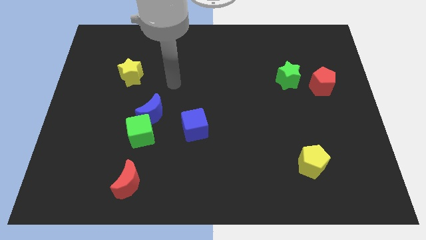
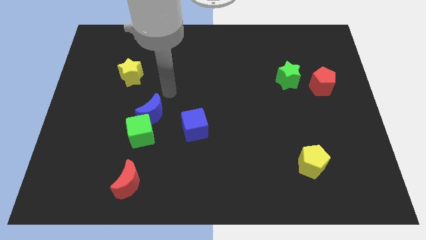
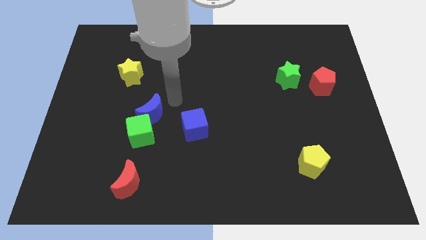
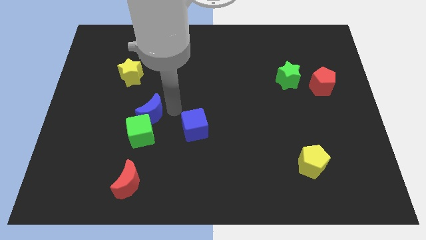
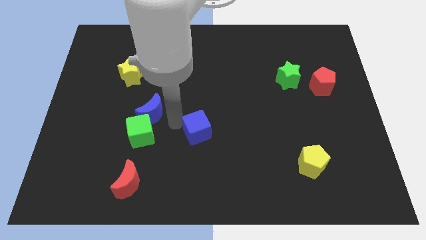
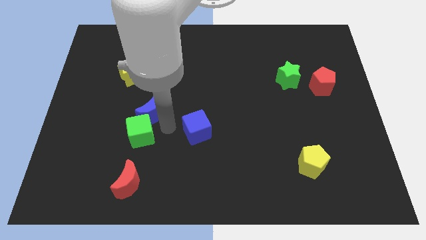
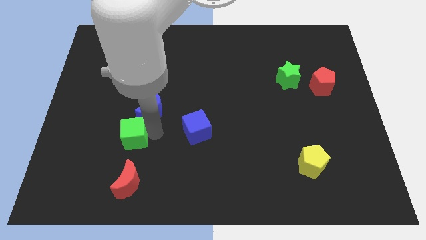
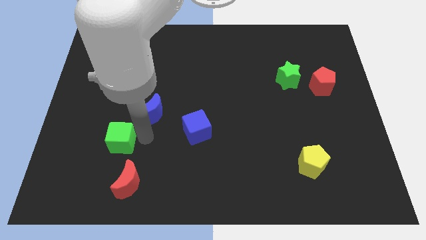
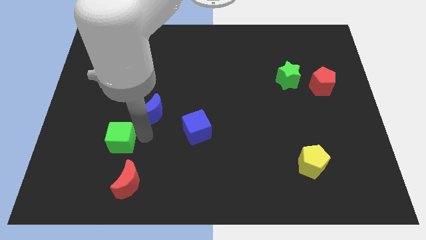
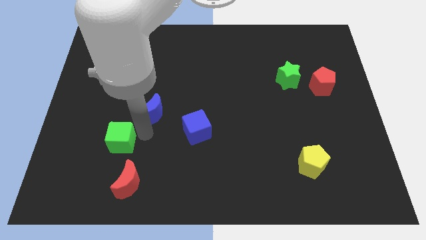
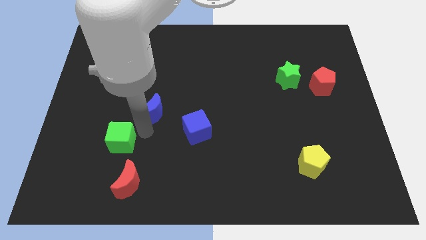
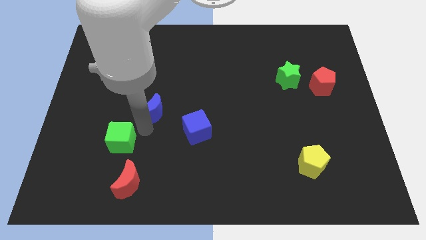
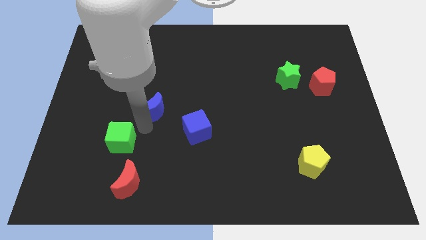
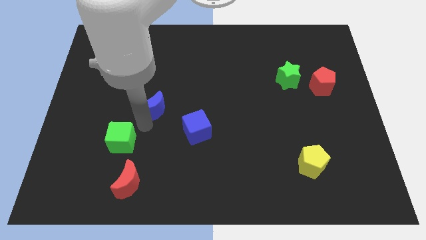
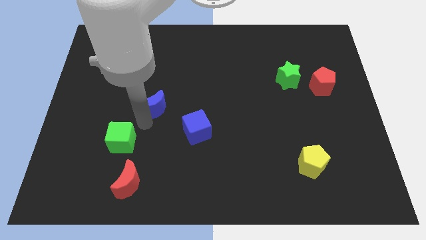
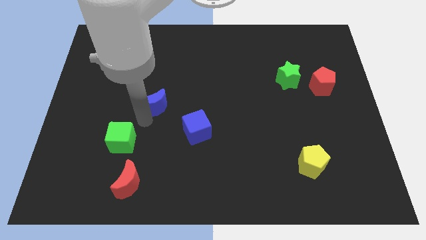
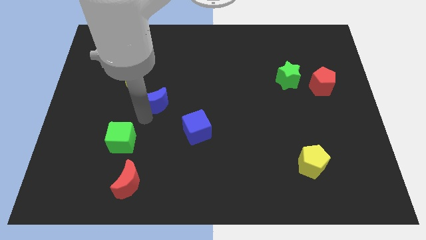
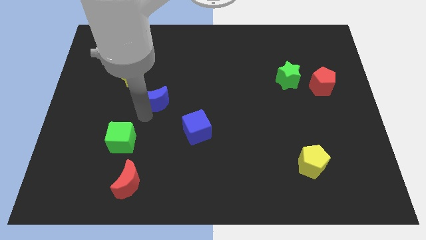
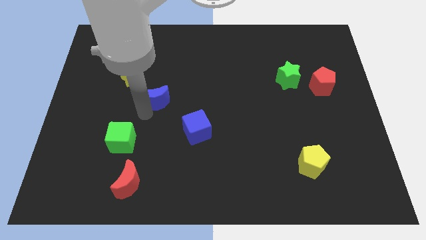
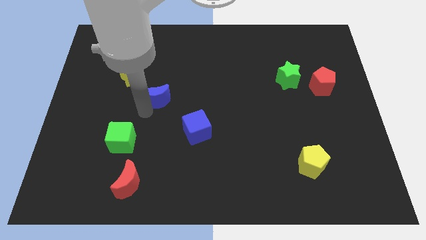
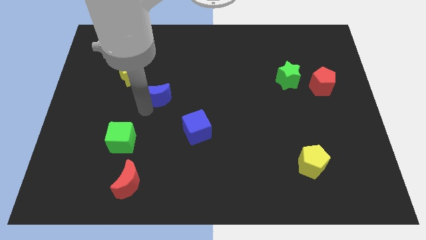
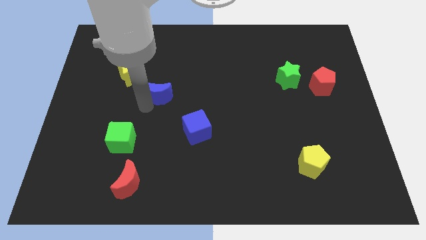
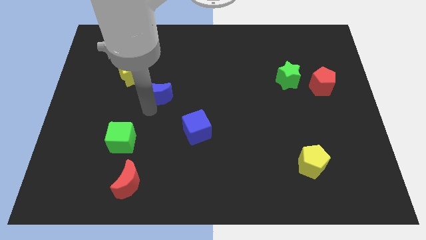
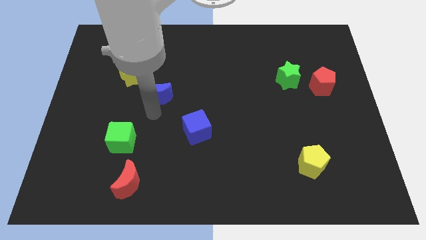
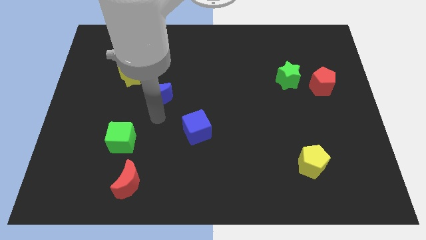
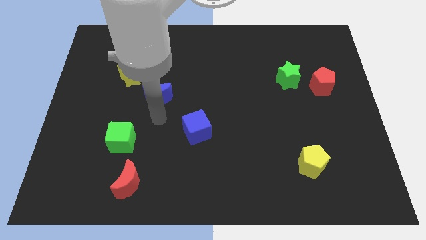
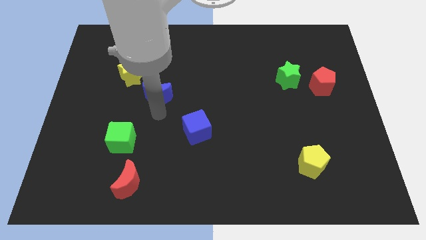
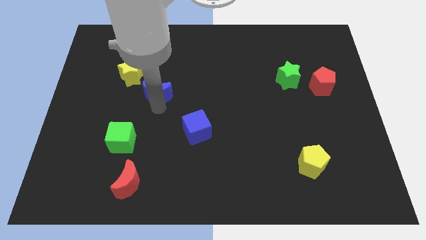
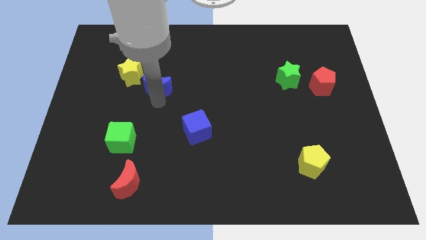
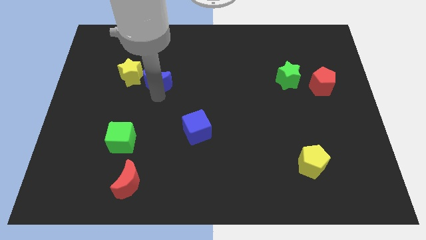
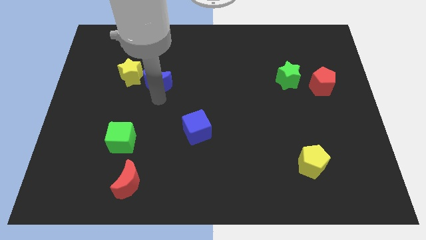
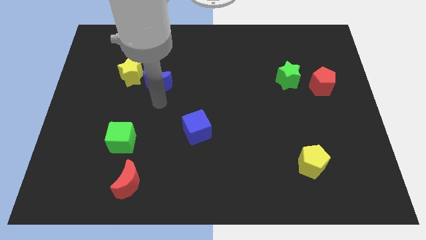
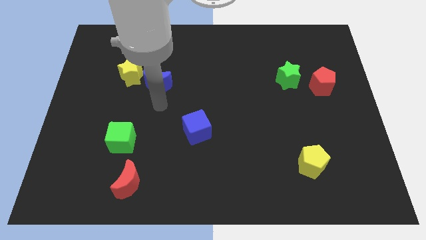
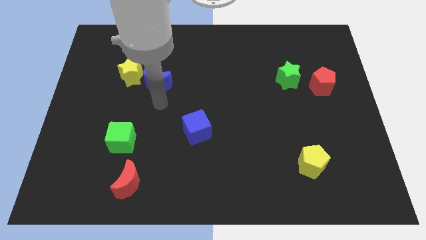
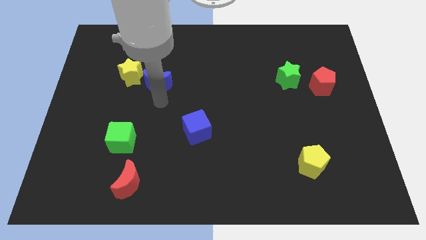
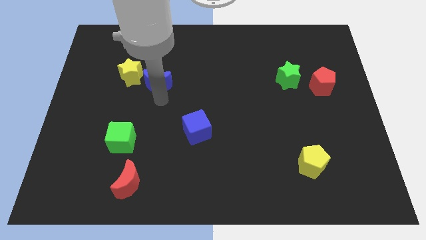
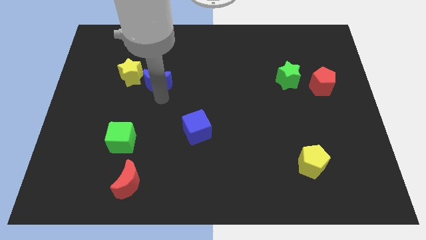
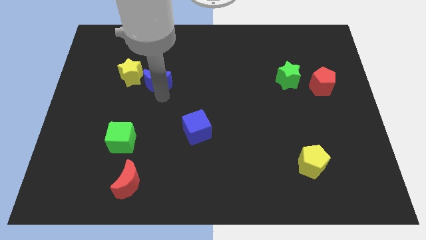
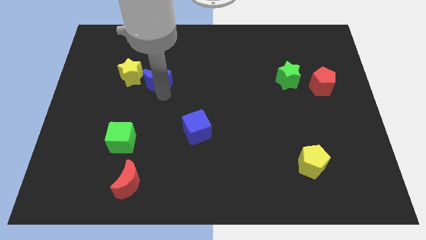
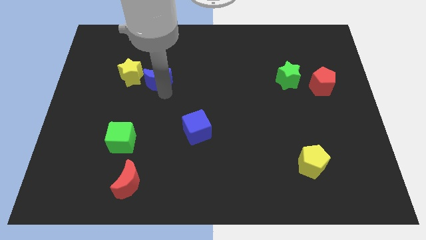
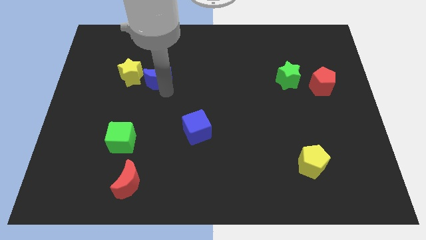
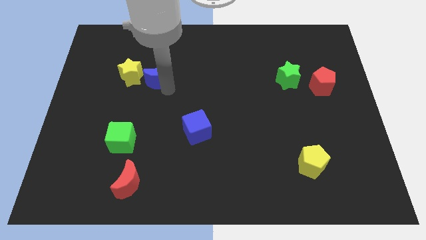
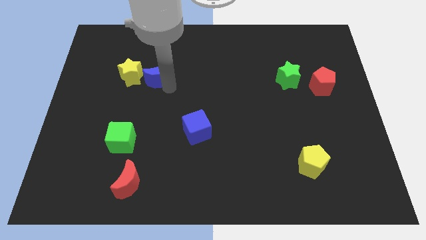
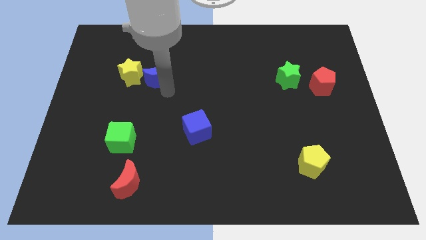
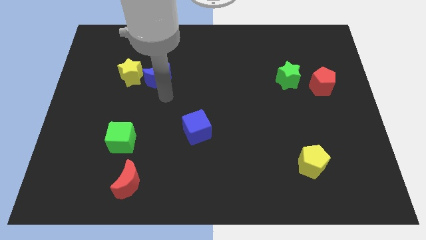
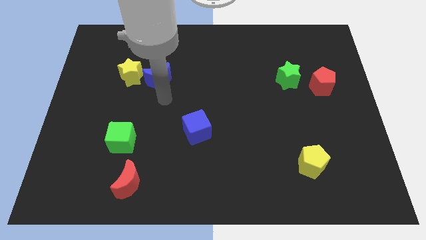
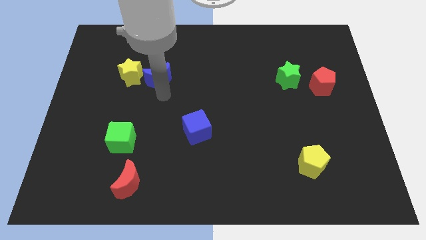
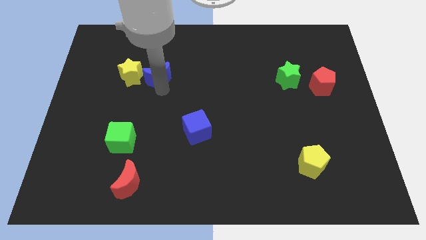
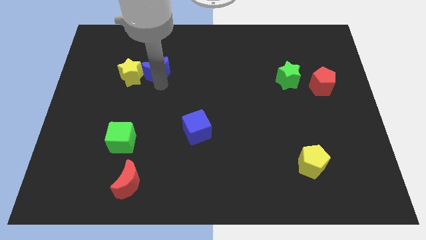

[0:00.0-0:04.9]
slide the blue moon to the top right of the yellow star

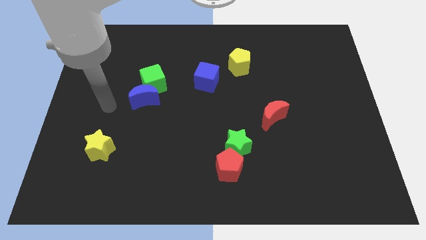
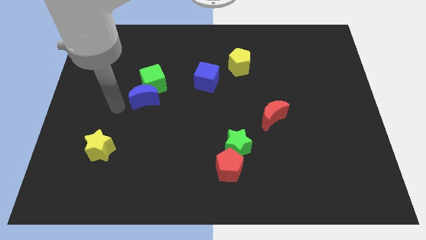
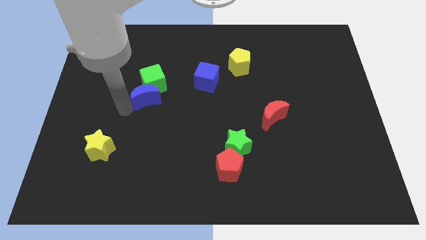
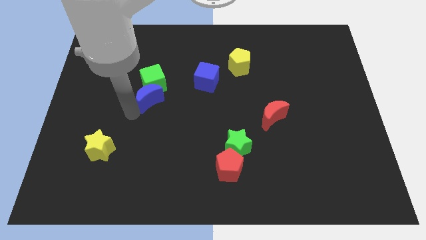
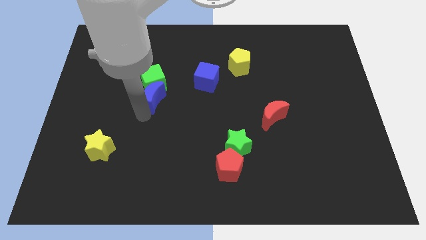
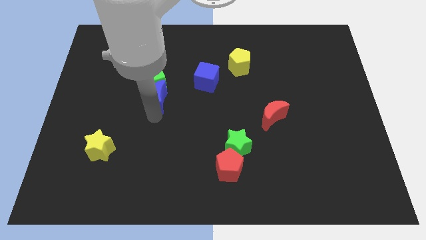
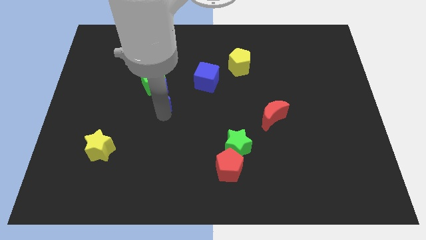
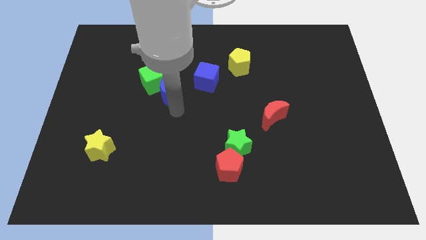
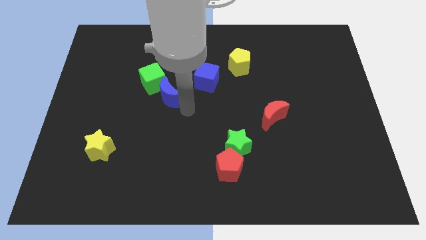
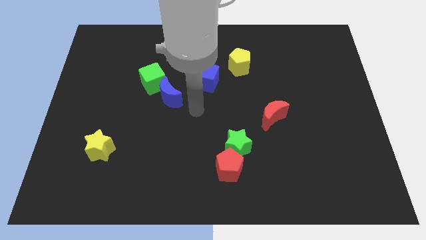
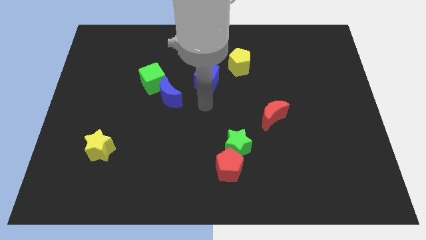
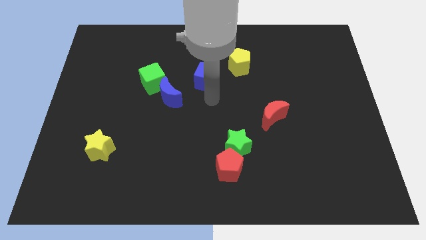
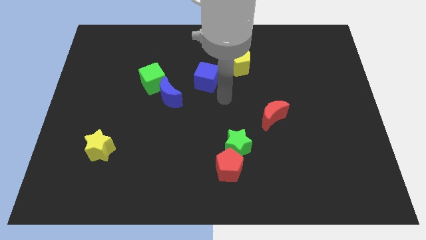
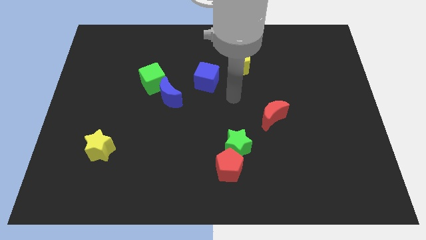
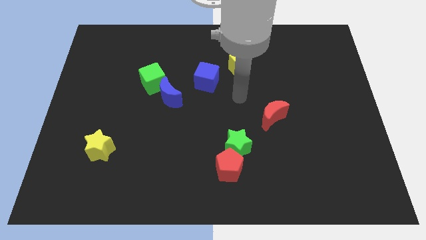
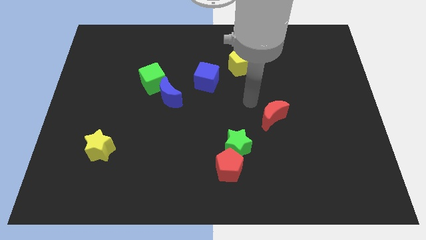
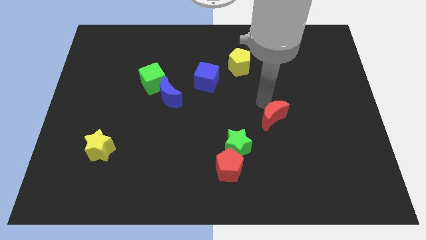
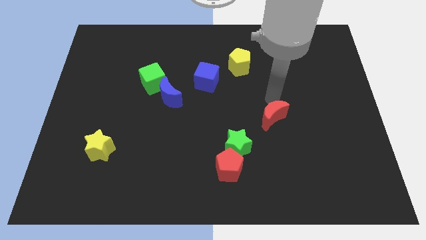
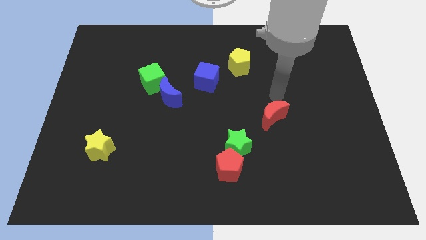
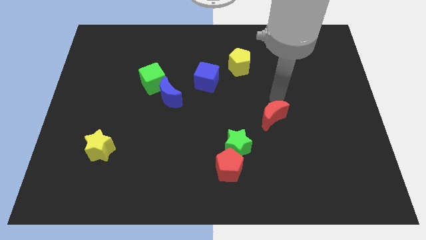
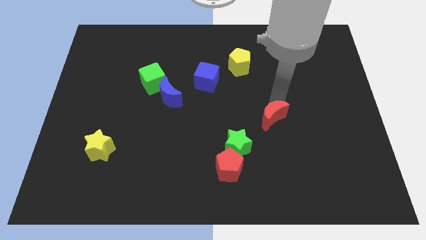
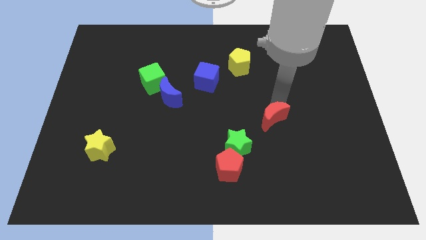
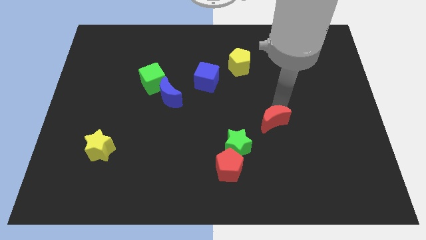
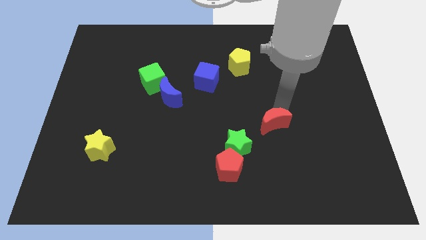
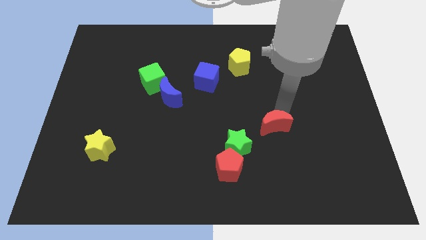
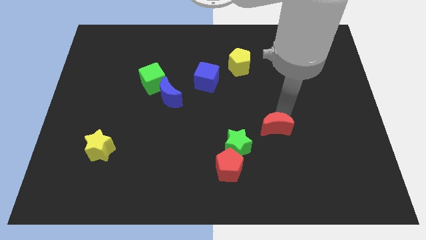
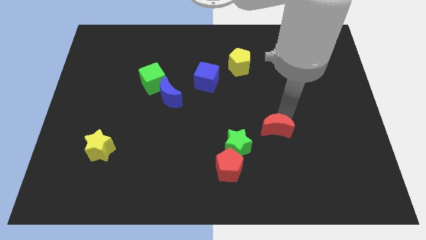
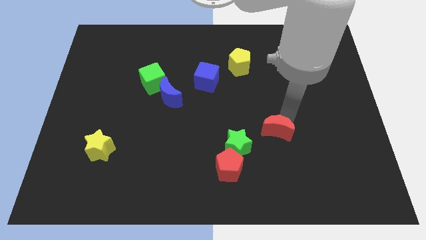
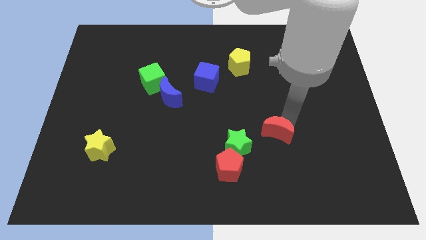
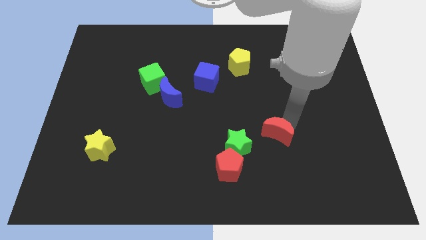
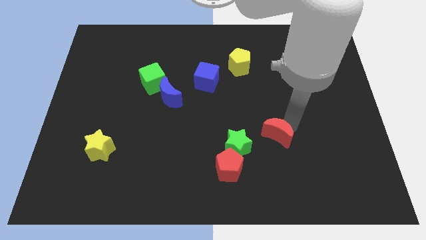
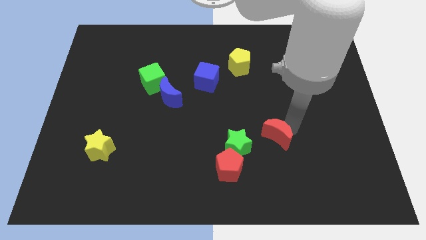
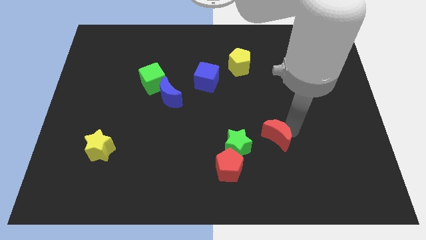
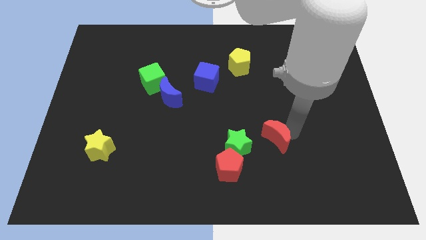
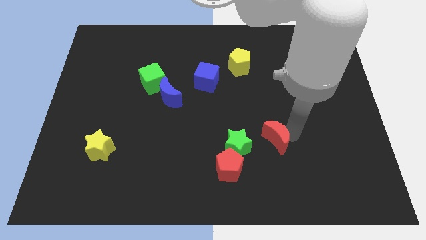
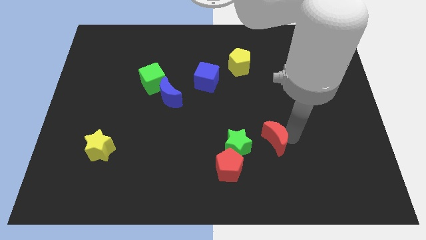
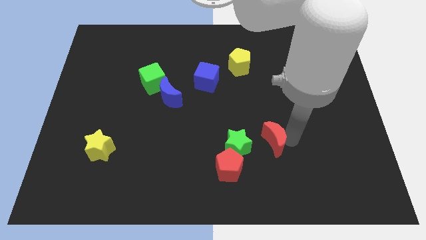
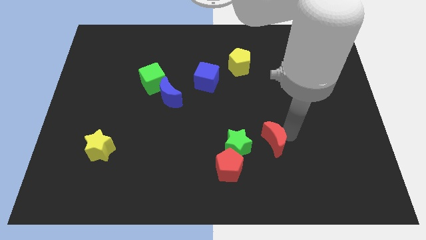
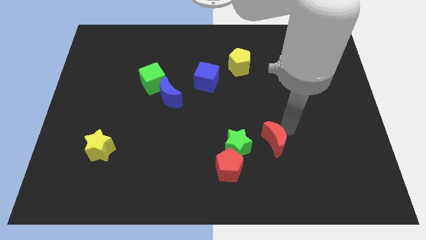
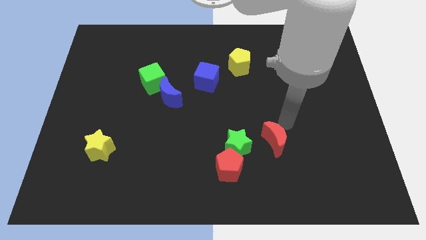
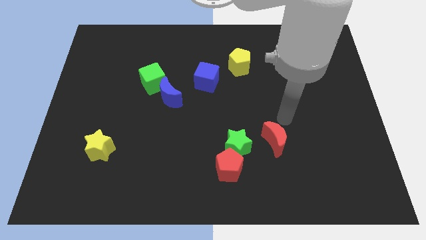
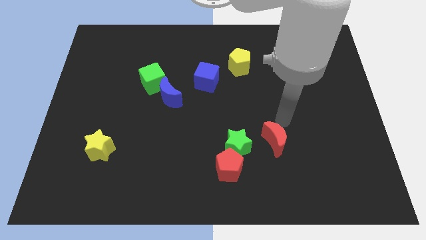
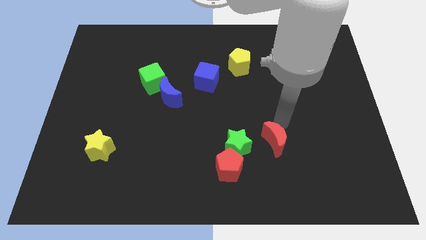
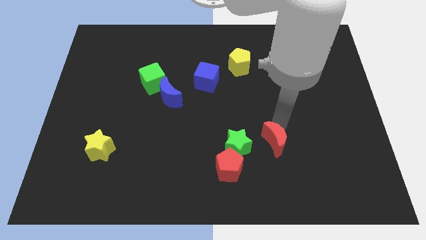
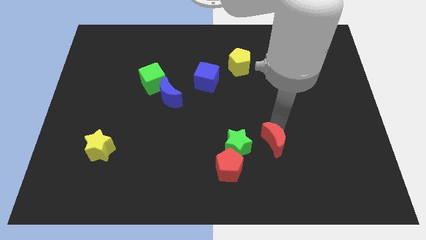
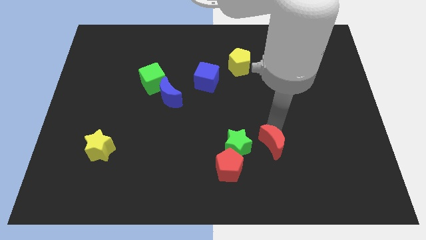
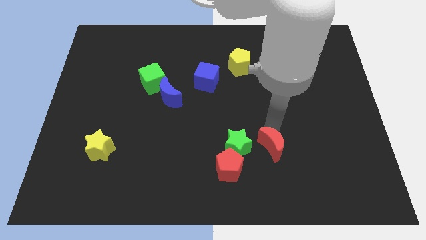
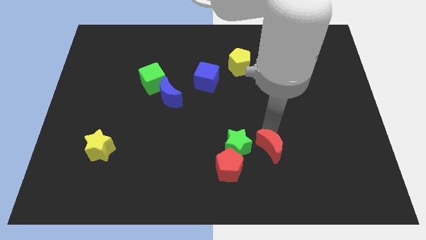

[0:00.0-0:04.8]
put the red moon to the bottom right of the green star
